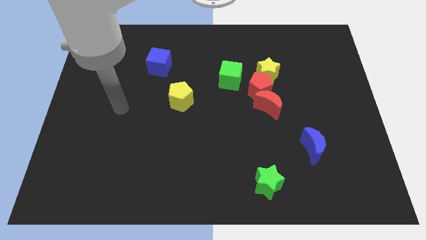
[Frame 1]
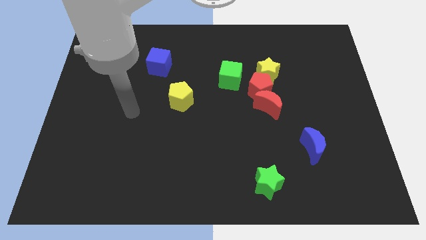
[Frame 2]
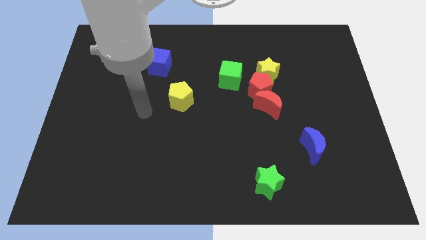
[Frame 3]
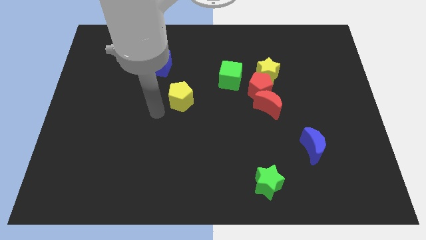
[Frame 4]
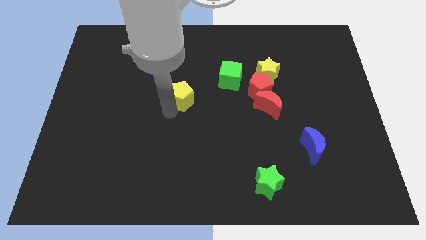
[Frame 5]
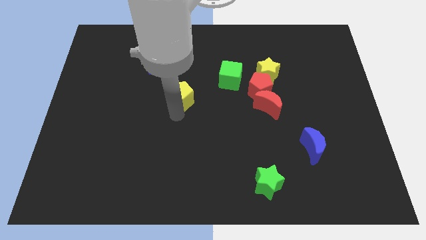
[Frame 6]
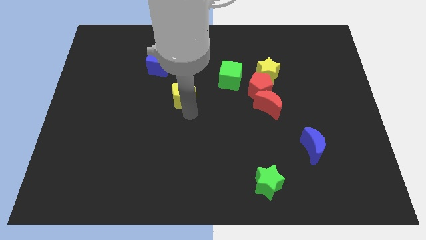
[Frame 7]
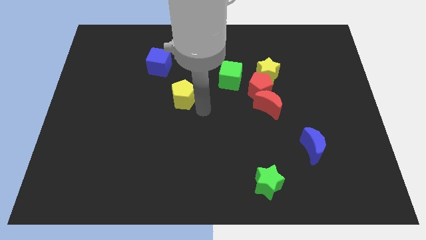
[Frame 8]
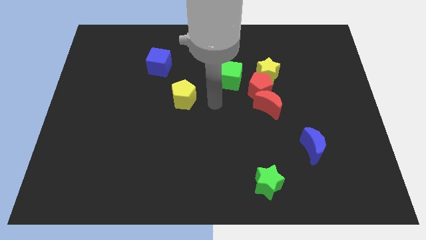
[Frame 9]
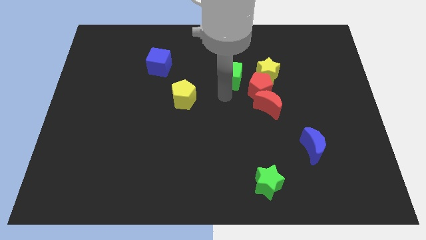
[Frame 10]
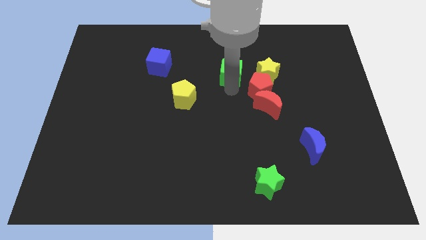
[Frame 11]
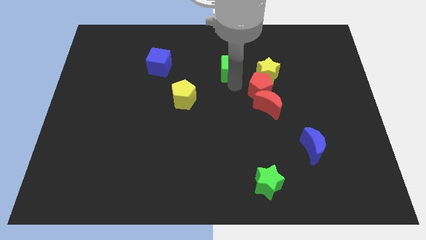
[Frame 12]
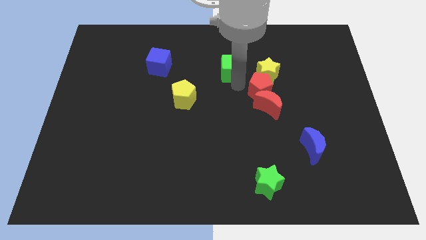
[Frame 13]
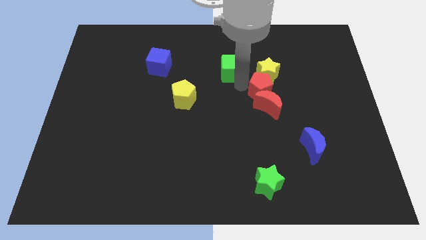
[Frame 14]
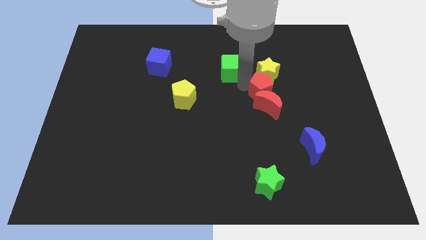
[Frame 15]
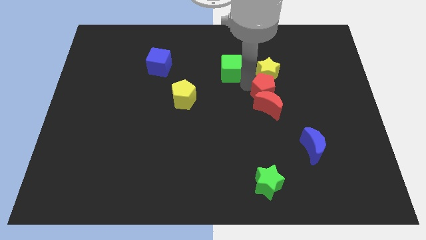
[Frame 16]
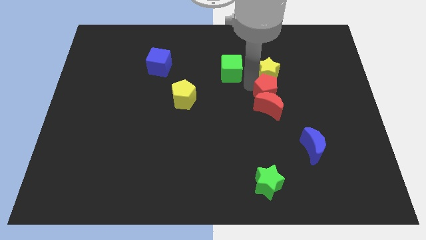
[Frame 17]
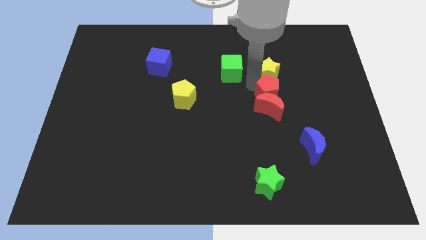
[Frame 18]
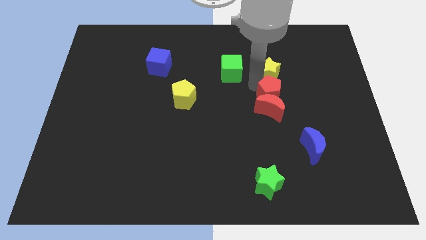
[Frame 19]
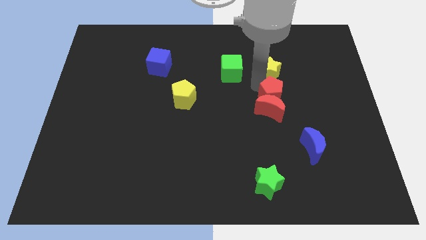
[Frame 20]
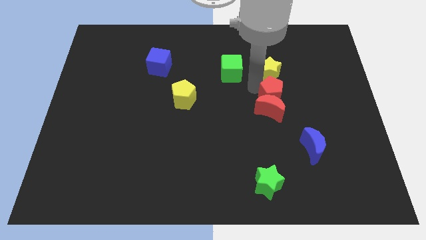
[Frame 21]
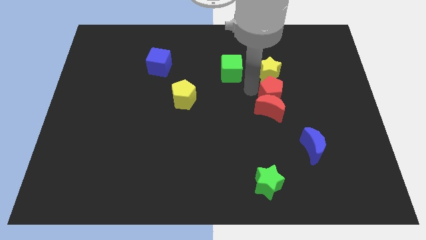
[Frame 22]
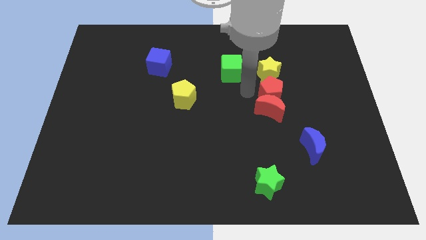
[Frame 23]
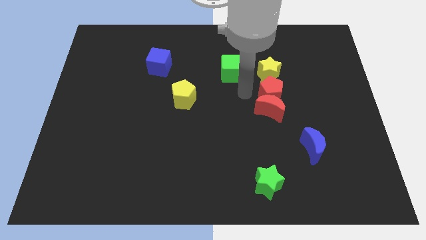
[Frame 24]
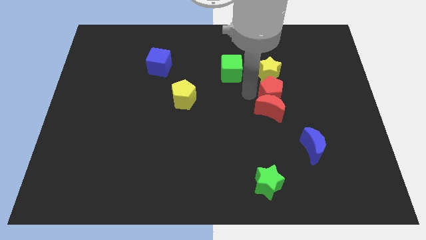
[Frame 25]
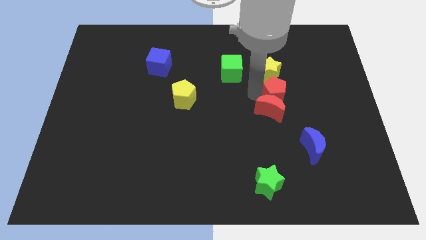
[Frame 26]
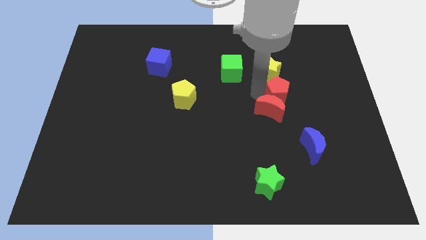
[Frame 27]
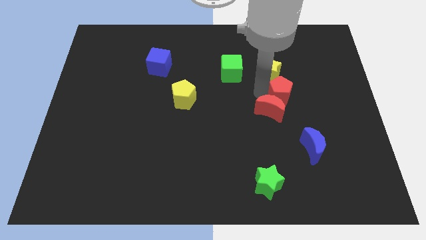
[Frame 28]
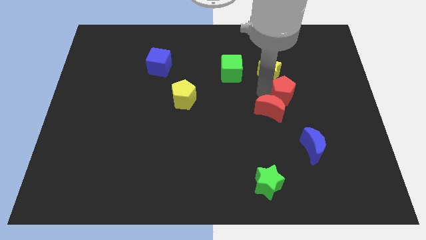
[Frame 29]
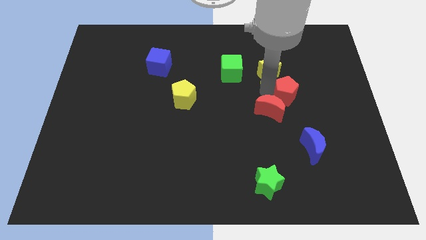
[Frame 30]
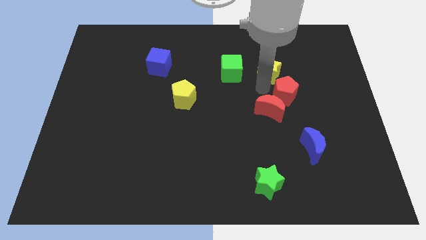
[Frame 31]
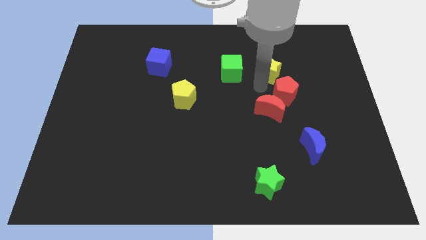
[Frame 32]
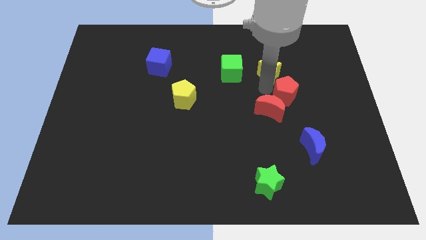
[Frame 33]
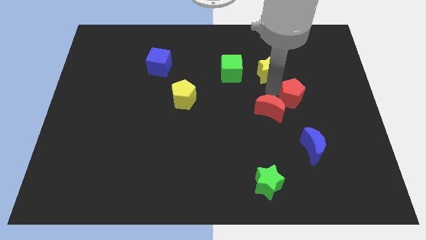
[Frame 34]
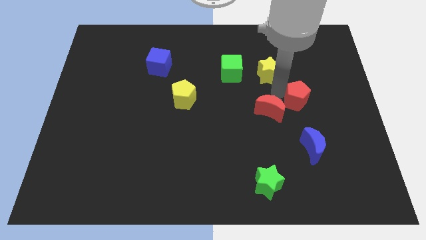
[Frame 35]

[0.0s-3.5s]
separate the red pentagon from the yellow star, red moon, and green cube

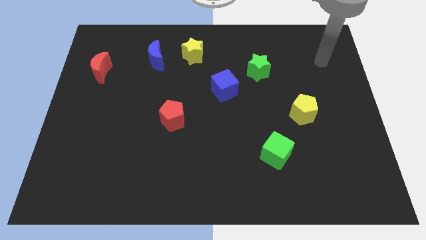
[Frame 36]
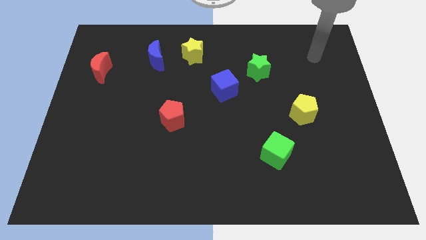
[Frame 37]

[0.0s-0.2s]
move the blue moon away from the yellow star

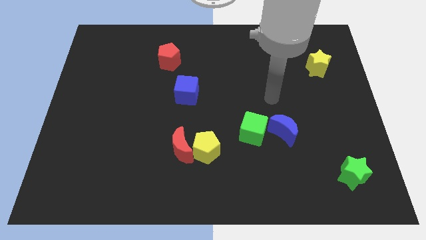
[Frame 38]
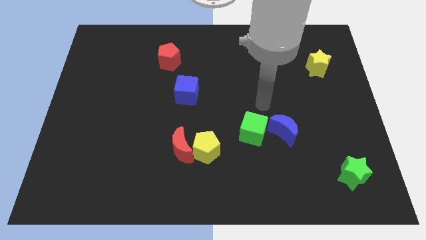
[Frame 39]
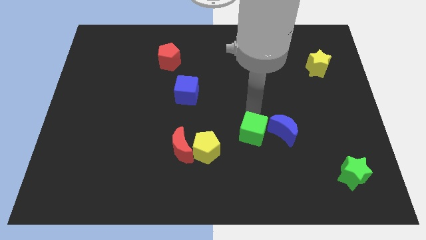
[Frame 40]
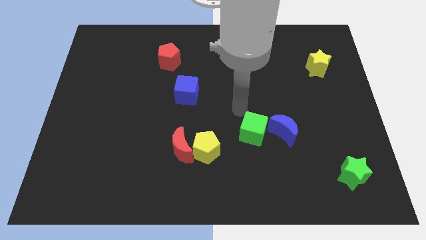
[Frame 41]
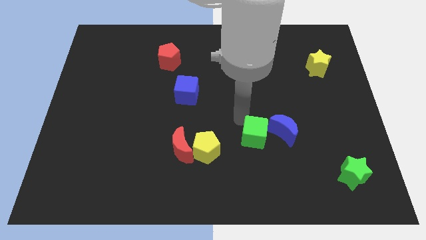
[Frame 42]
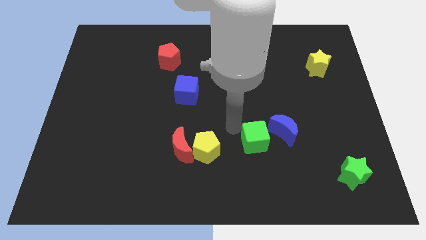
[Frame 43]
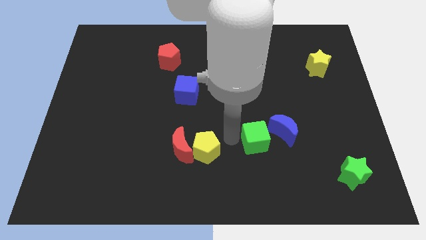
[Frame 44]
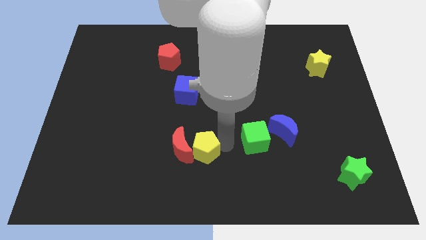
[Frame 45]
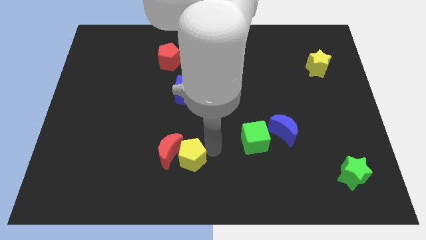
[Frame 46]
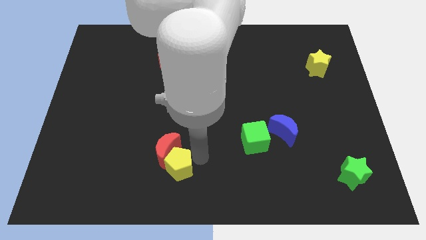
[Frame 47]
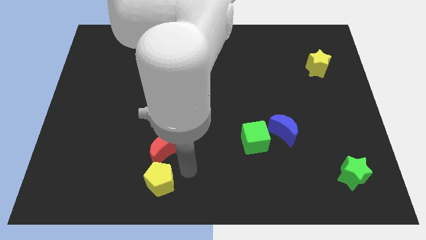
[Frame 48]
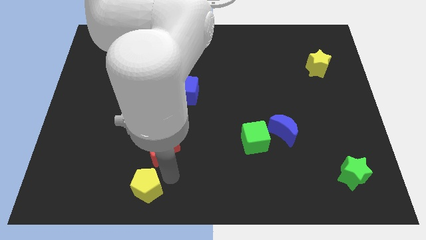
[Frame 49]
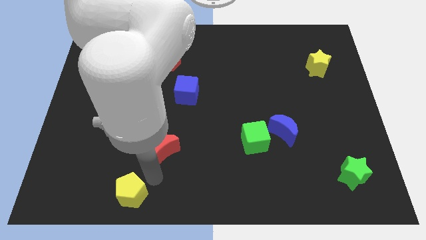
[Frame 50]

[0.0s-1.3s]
move the red moon away from the yellow pentagon

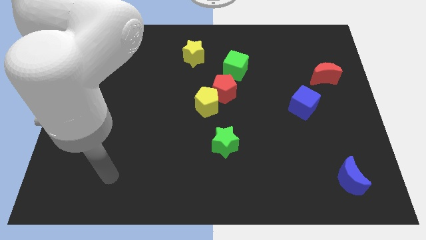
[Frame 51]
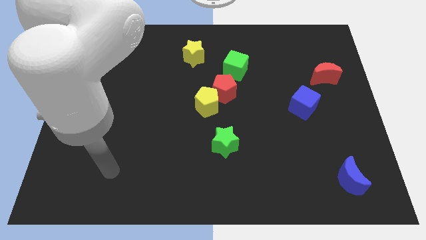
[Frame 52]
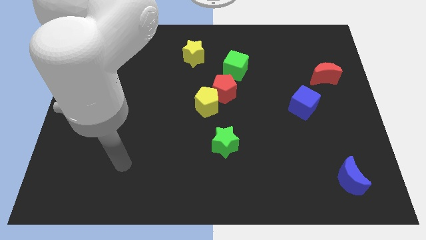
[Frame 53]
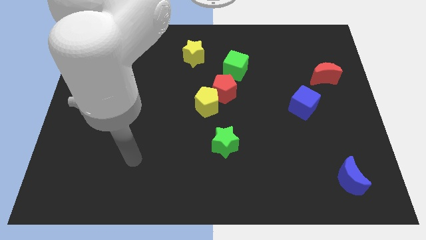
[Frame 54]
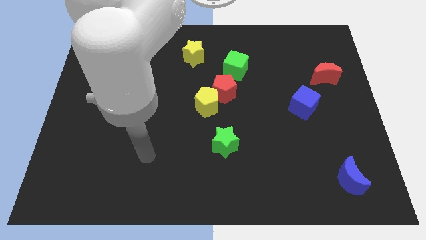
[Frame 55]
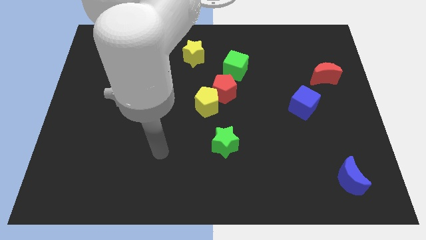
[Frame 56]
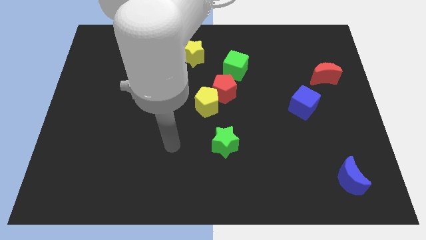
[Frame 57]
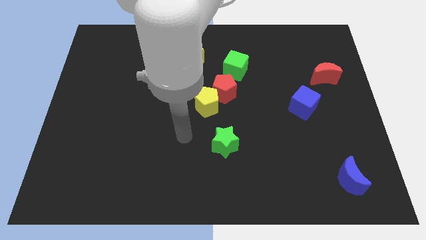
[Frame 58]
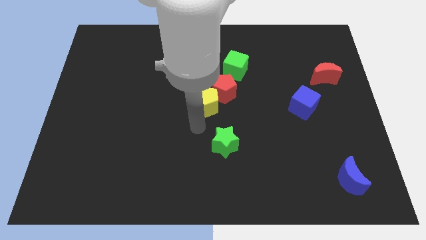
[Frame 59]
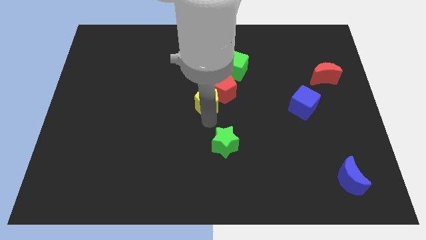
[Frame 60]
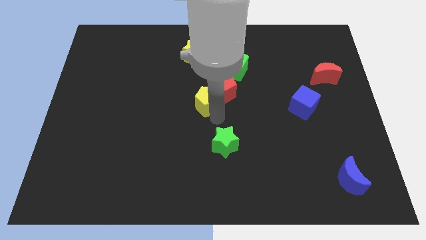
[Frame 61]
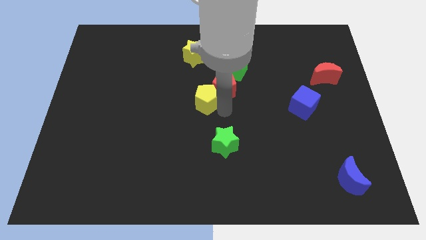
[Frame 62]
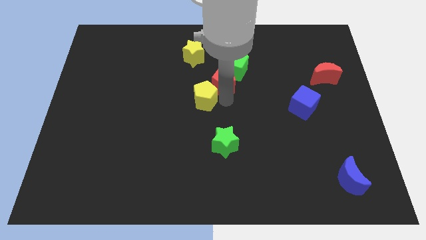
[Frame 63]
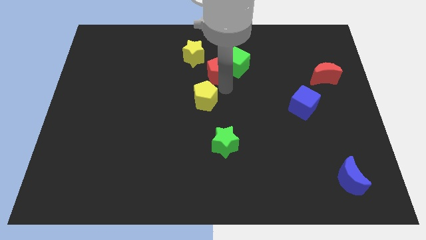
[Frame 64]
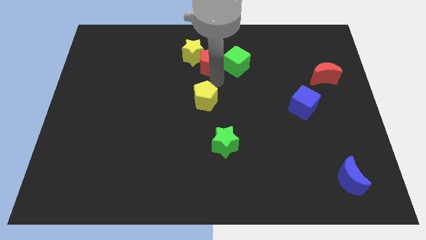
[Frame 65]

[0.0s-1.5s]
pull the yellow pentagon apart from the red pentagon

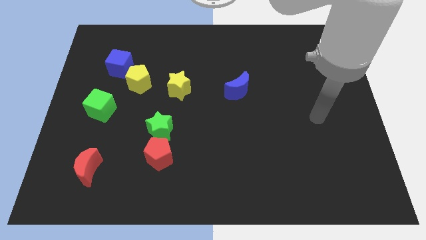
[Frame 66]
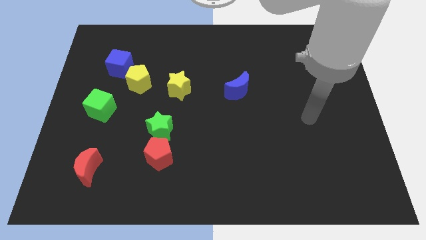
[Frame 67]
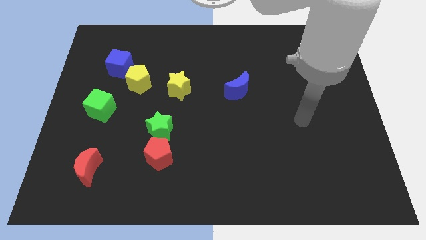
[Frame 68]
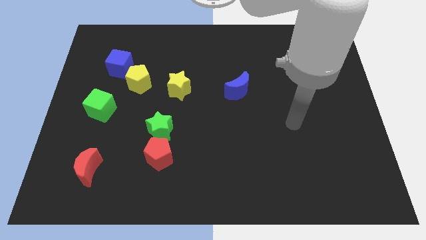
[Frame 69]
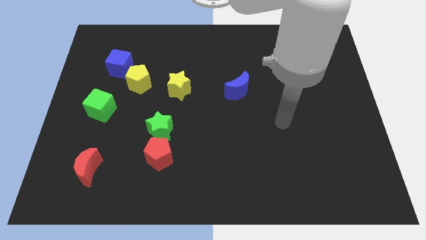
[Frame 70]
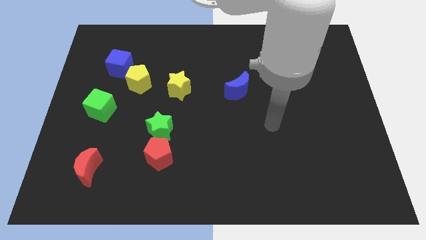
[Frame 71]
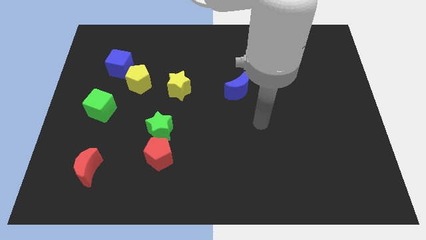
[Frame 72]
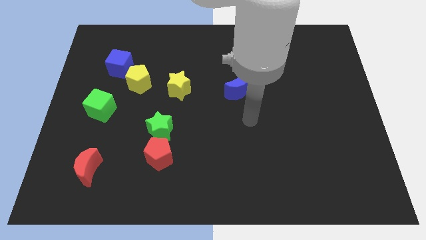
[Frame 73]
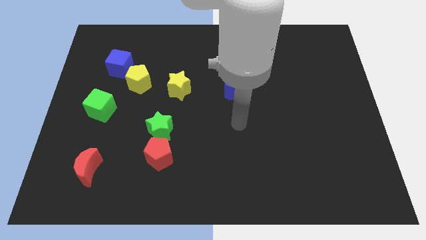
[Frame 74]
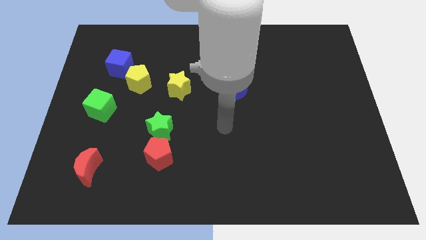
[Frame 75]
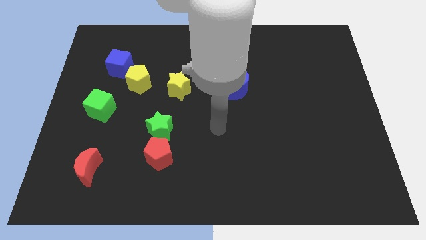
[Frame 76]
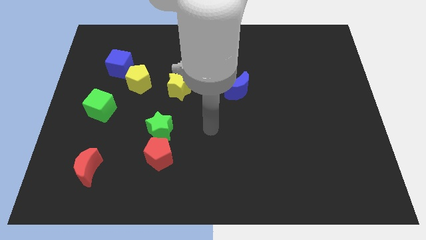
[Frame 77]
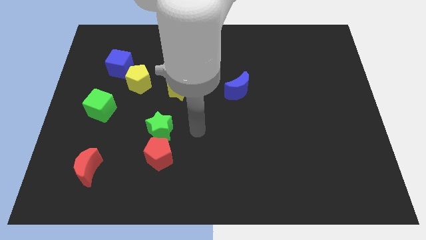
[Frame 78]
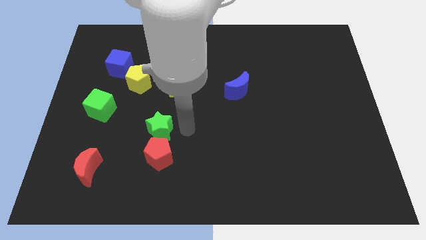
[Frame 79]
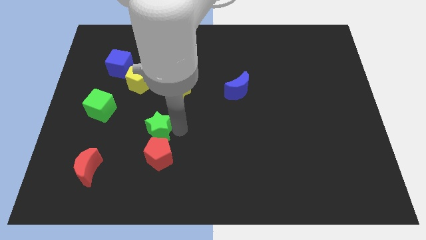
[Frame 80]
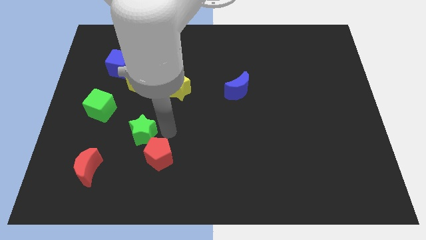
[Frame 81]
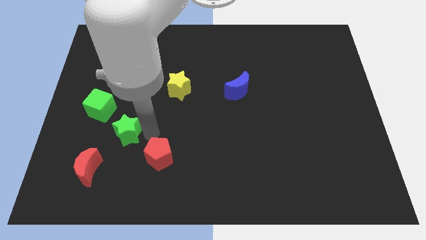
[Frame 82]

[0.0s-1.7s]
pull the red pentagon apart from the green star

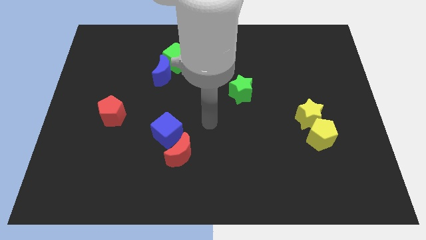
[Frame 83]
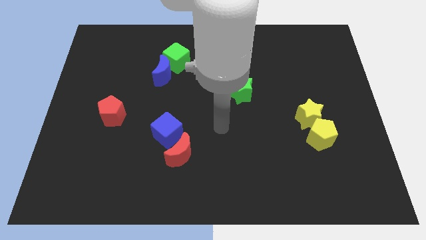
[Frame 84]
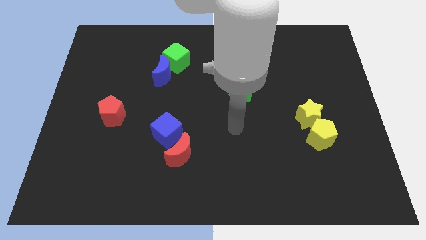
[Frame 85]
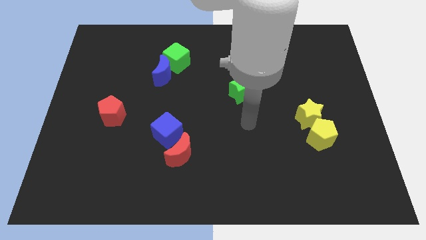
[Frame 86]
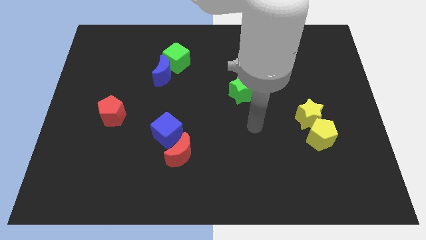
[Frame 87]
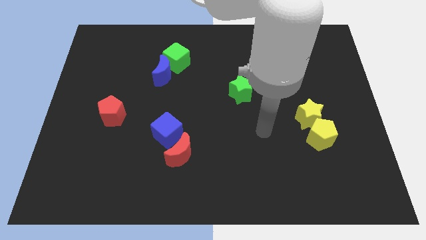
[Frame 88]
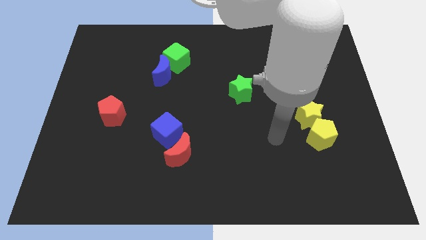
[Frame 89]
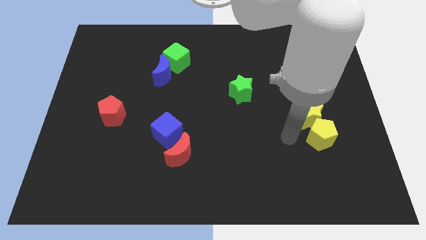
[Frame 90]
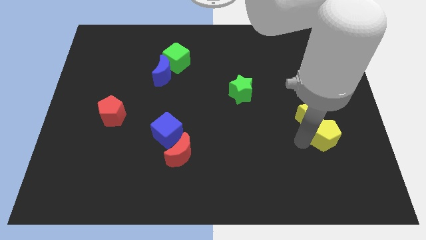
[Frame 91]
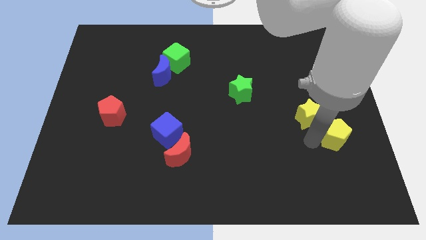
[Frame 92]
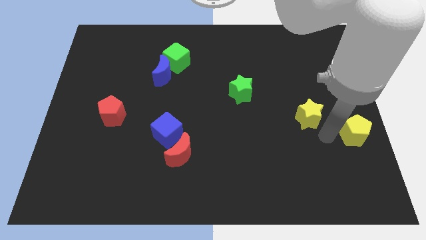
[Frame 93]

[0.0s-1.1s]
move the yellow star away from the yellow pentagon
